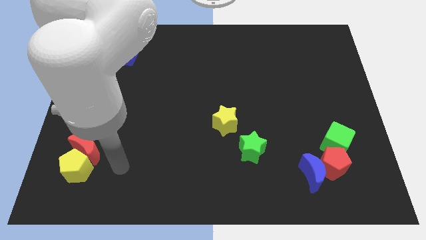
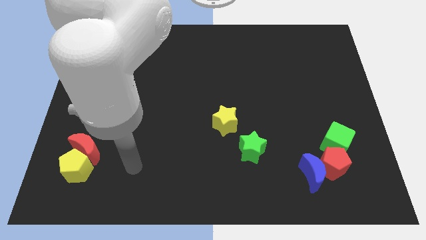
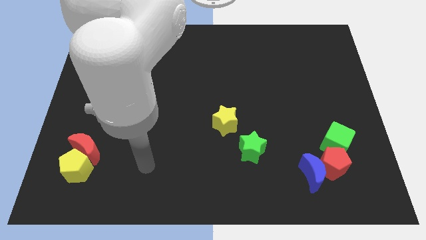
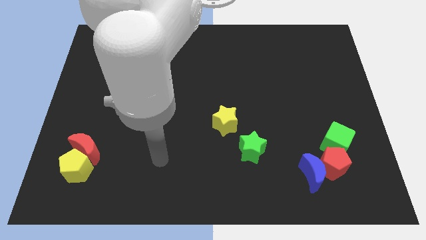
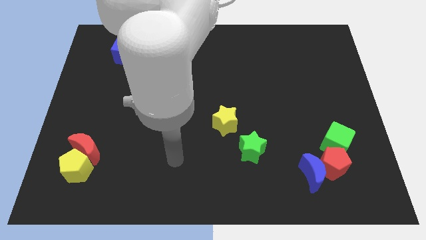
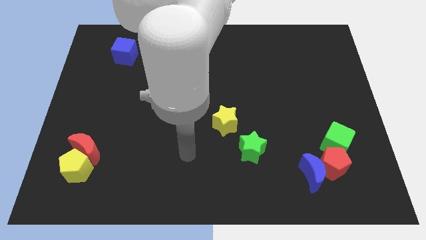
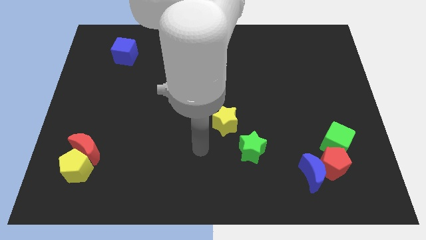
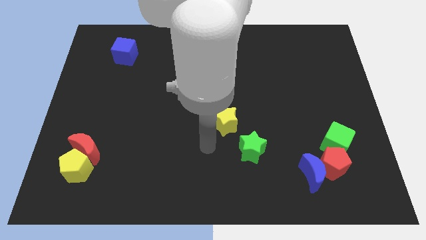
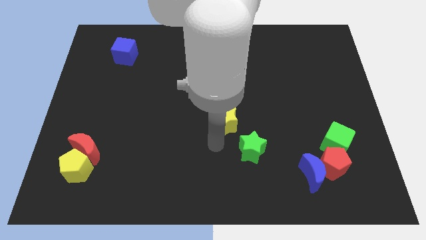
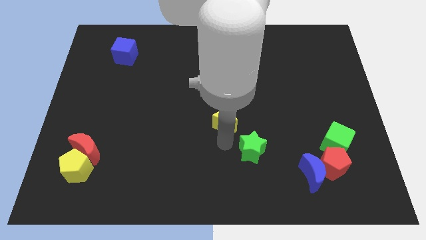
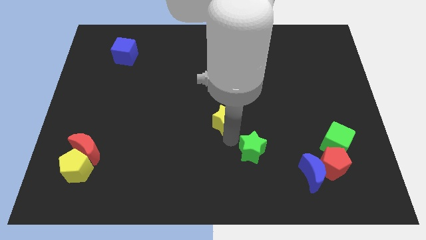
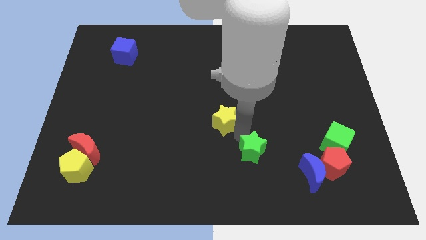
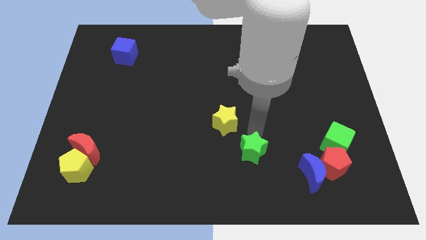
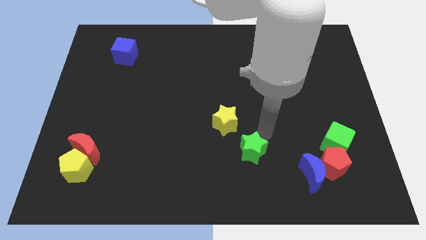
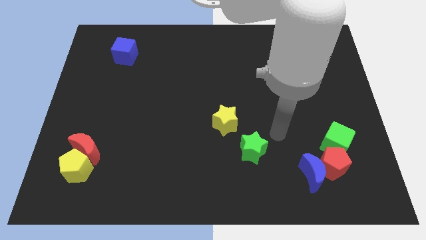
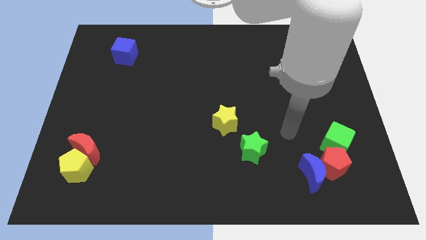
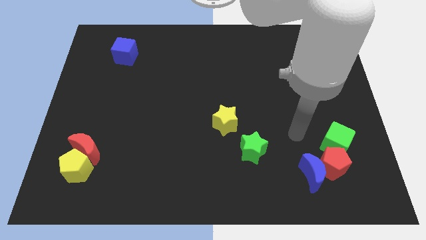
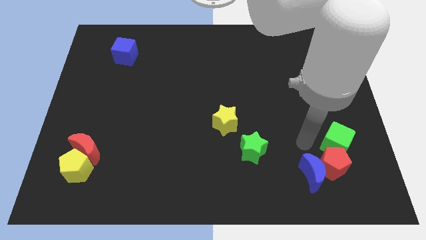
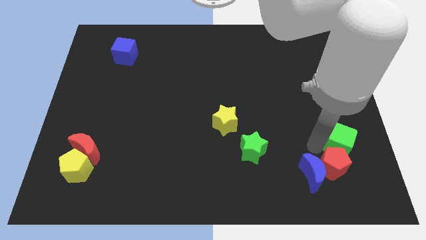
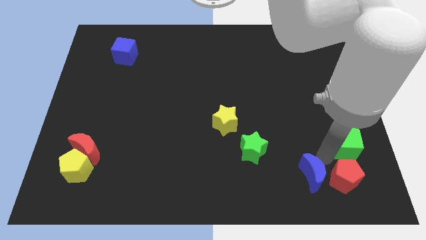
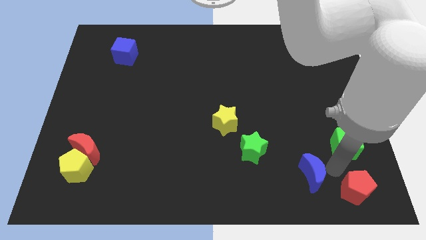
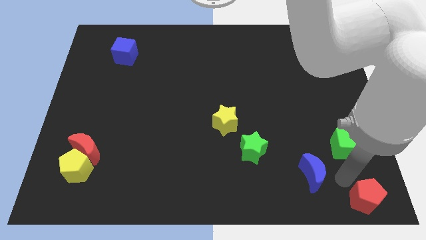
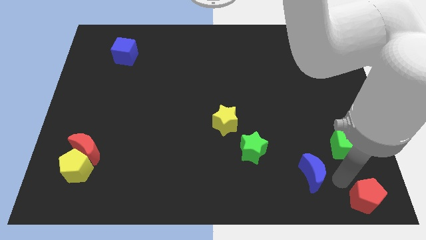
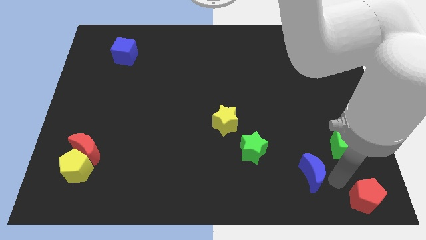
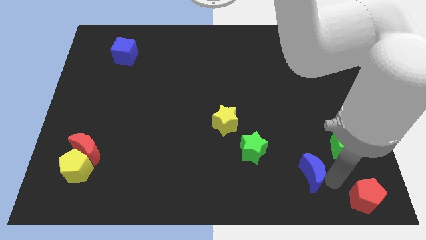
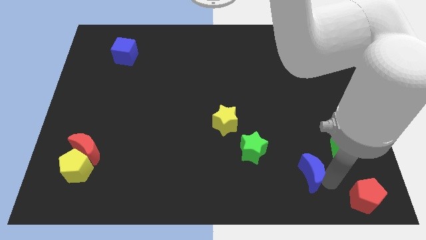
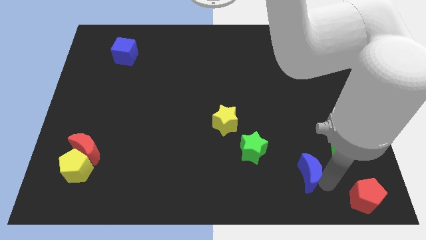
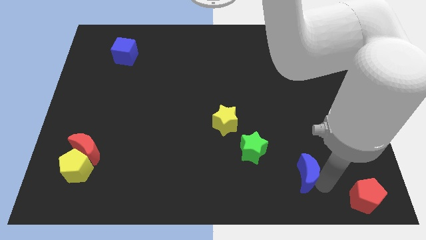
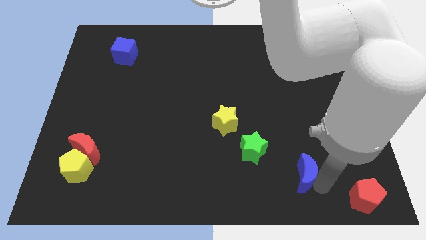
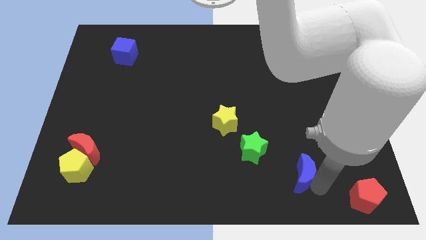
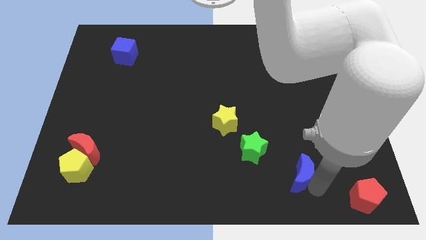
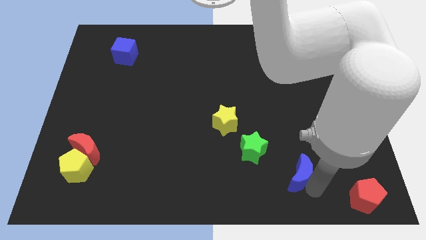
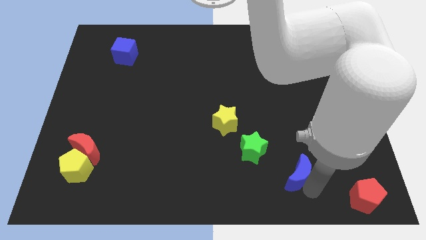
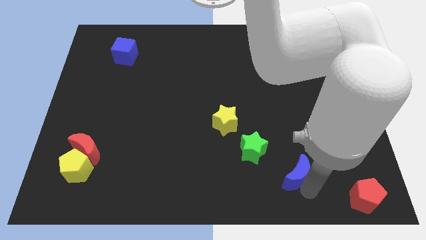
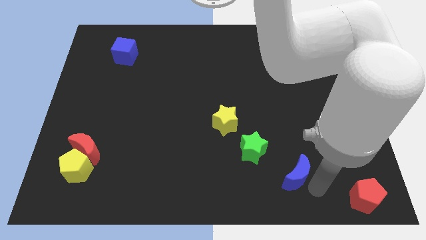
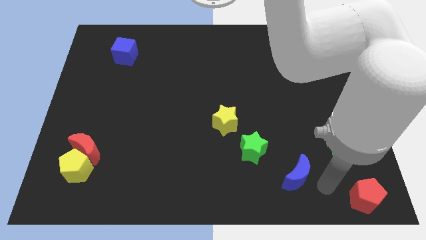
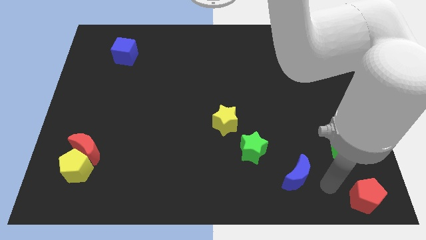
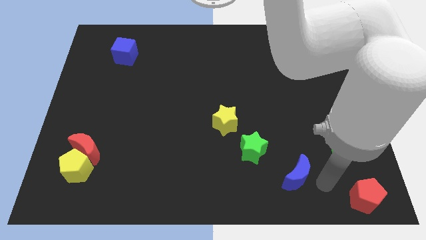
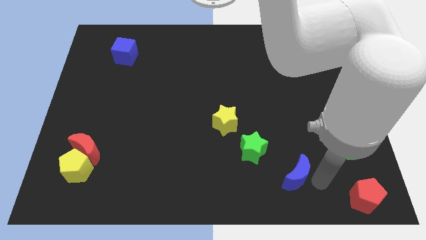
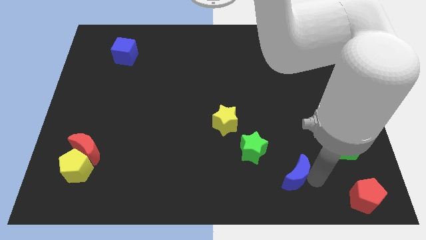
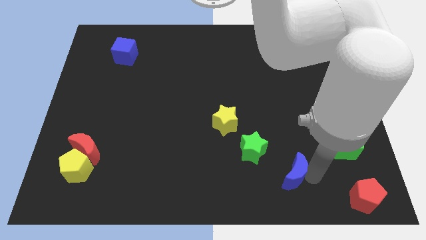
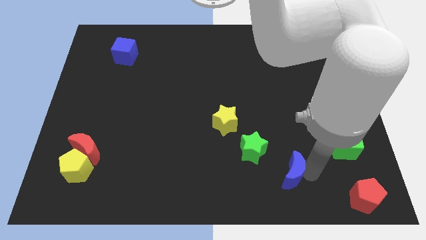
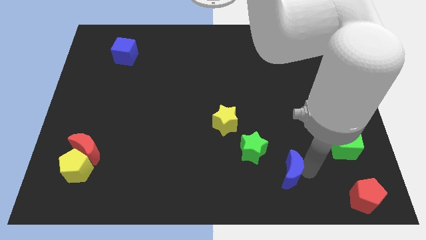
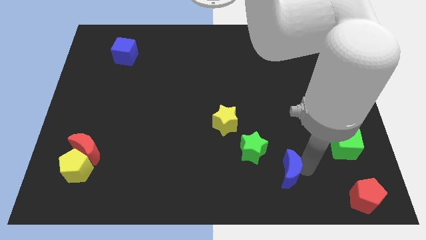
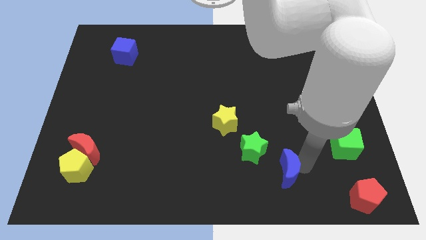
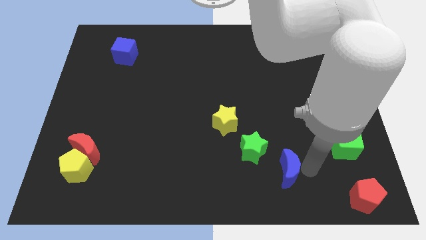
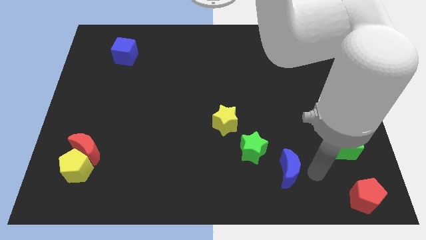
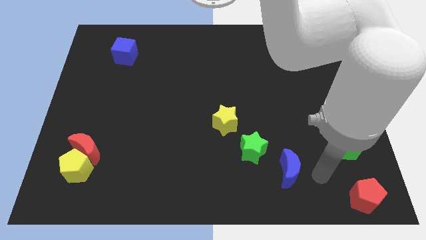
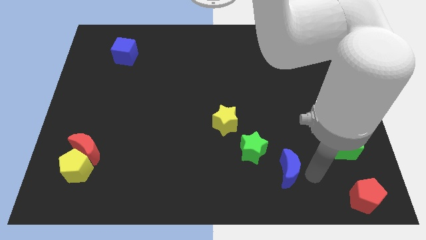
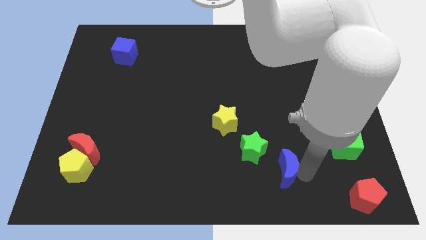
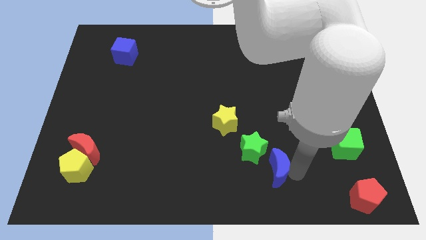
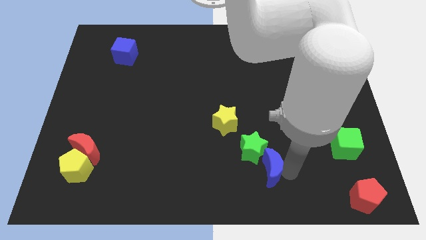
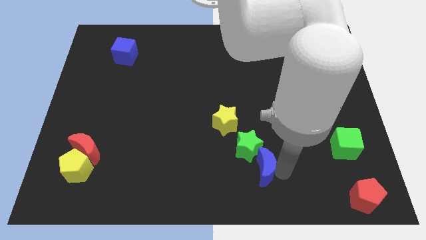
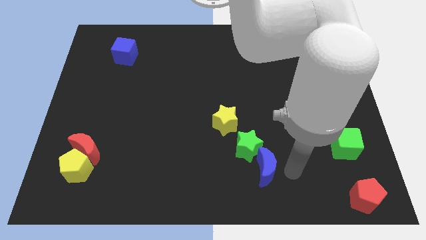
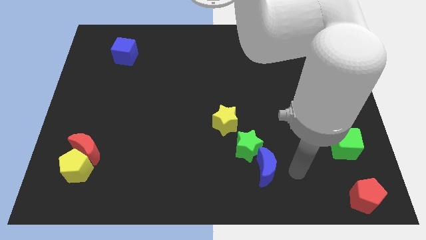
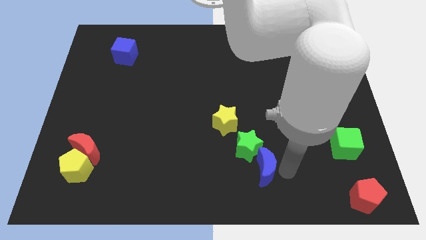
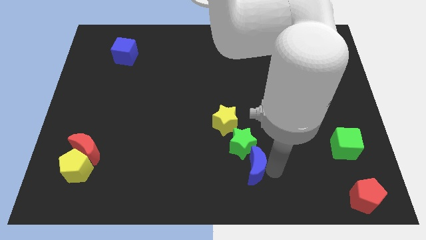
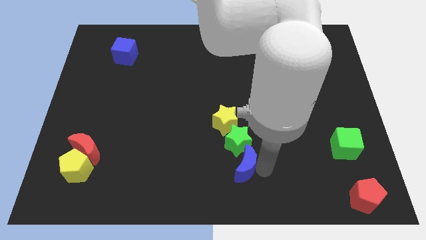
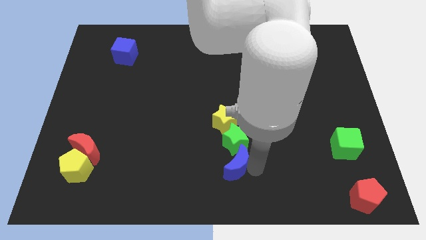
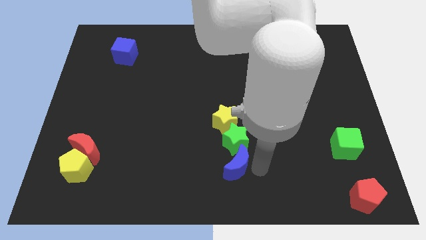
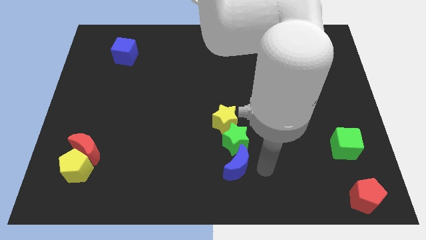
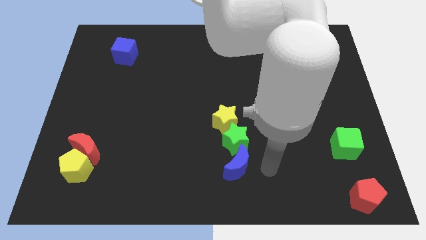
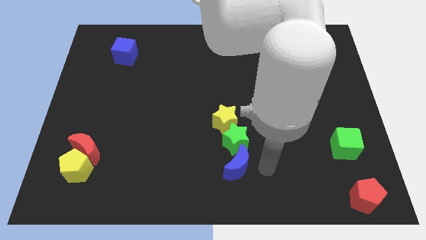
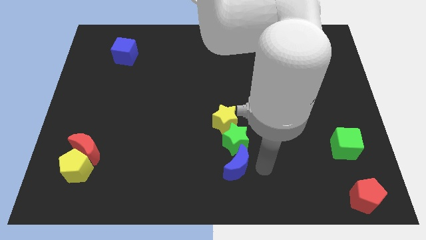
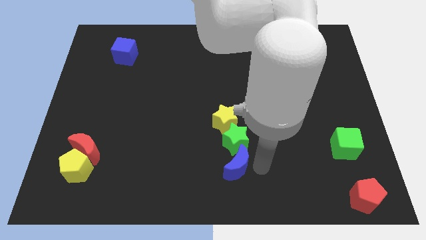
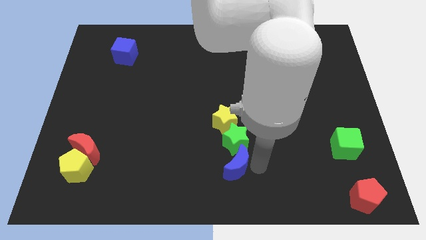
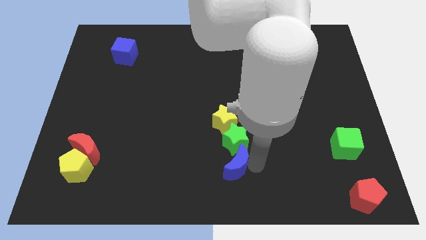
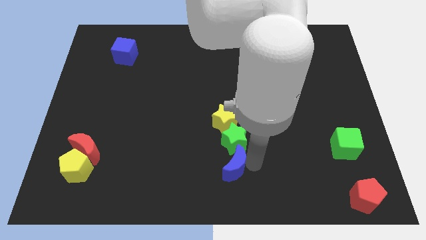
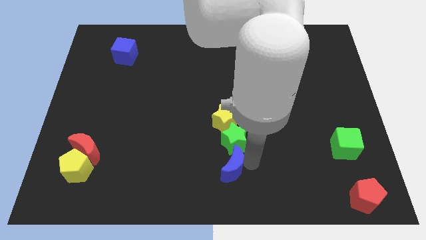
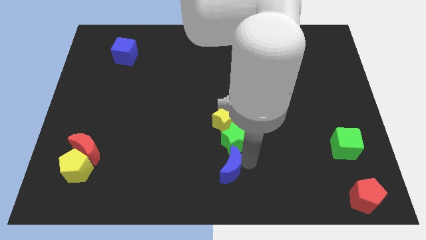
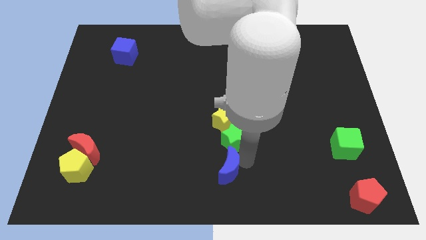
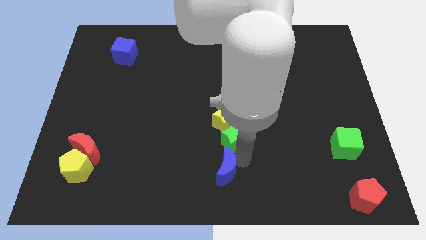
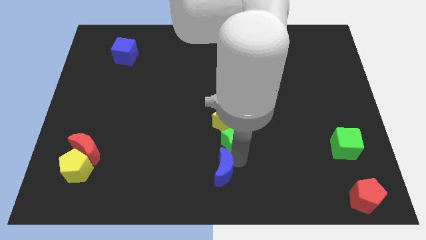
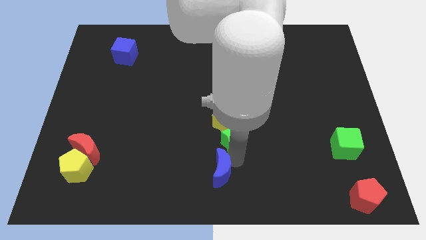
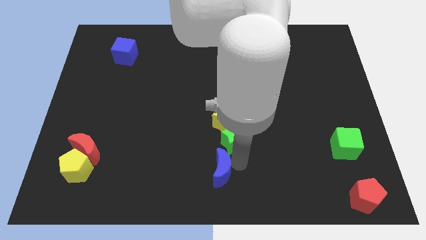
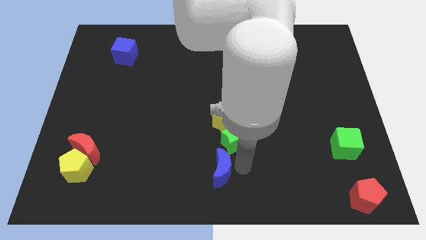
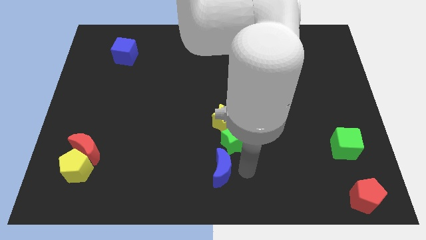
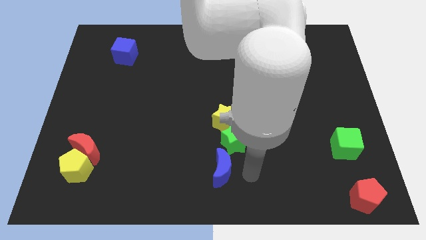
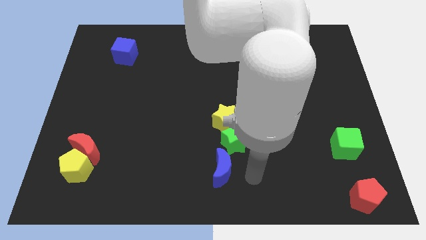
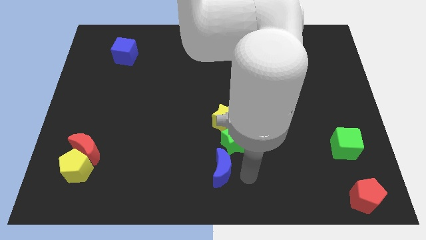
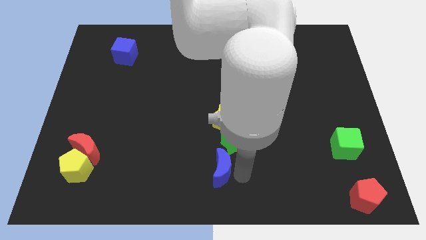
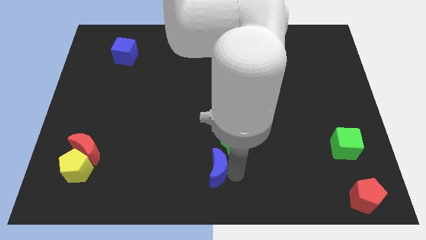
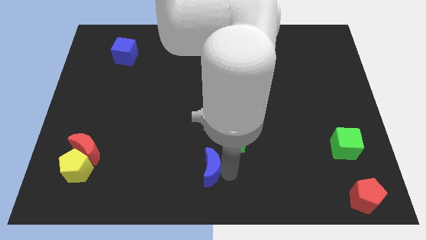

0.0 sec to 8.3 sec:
move the blue moon left
